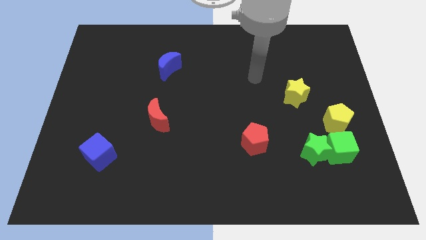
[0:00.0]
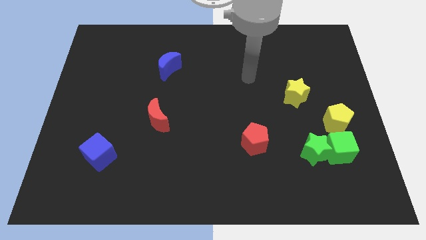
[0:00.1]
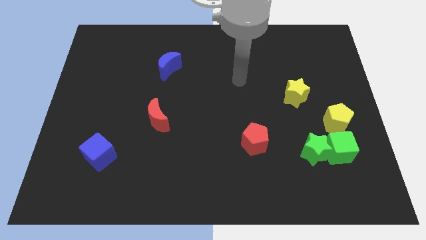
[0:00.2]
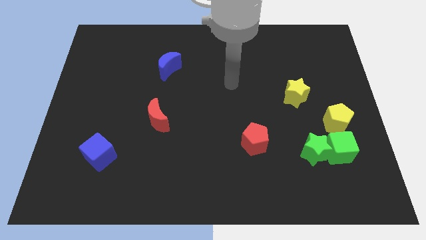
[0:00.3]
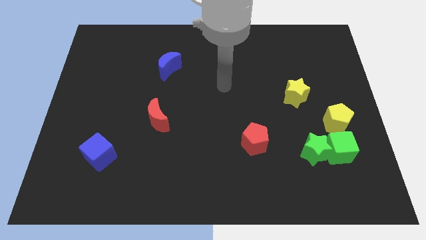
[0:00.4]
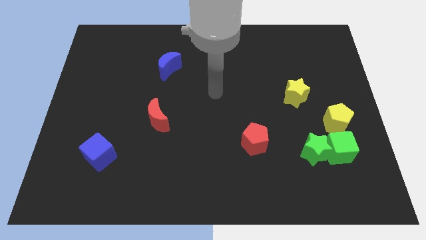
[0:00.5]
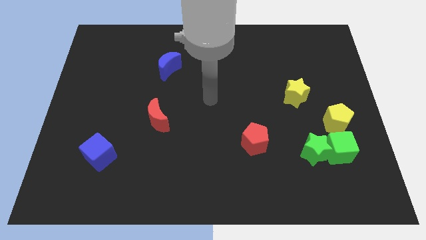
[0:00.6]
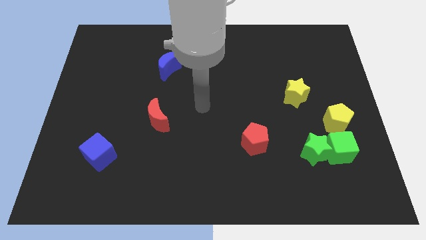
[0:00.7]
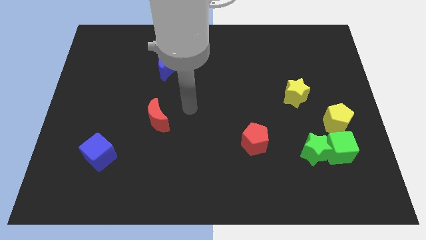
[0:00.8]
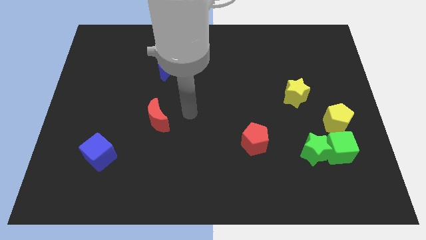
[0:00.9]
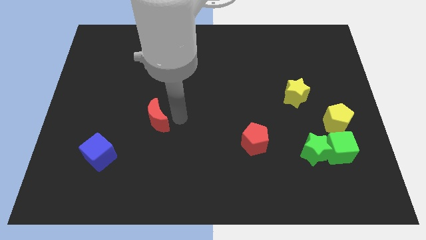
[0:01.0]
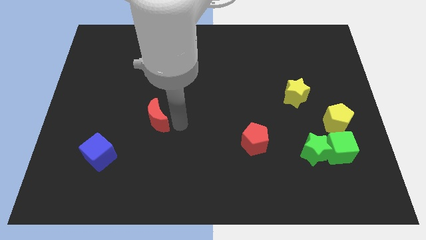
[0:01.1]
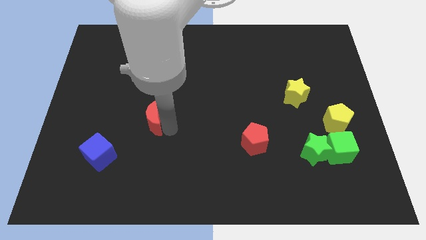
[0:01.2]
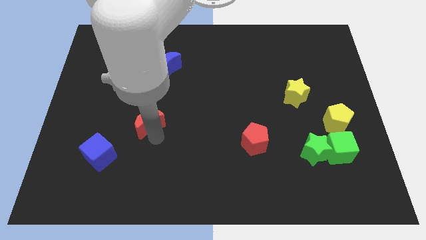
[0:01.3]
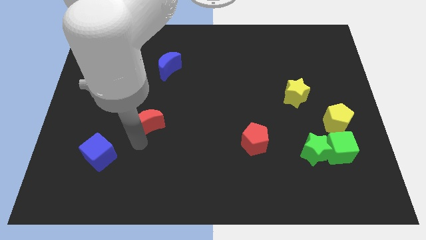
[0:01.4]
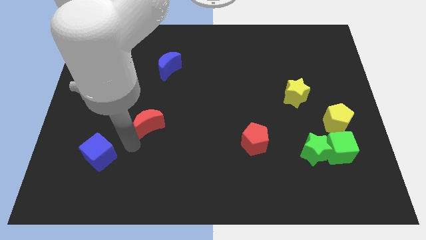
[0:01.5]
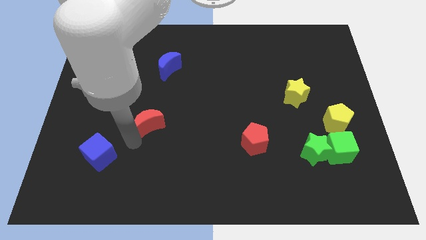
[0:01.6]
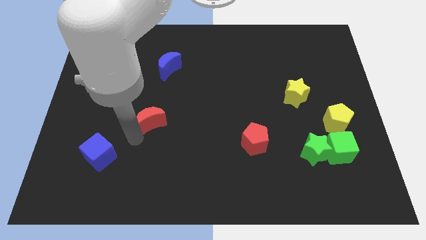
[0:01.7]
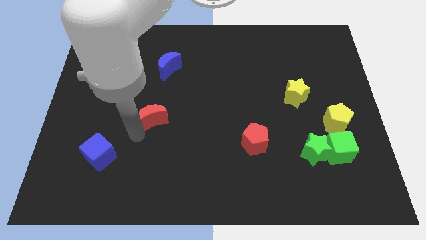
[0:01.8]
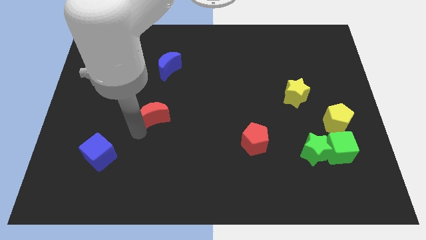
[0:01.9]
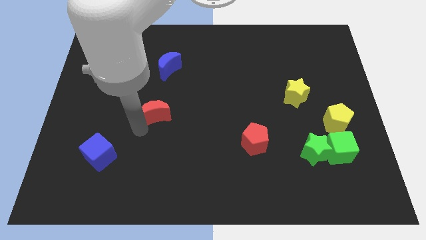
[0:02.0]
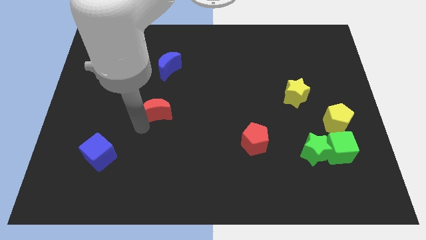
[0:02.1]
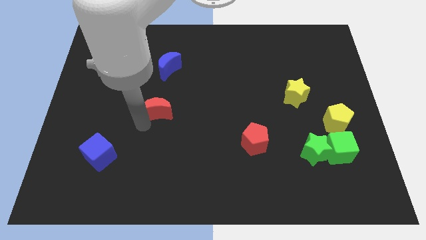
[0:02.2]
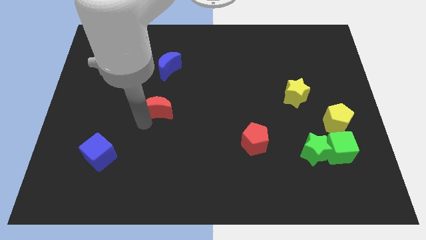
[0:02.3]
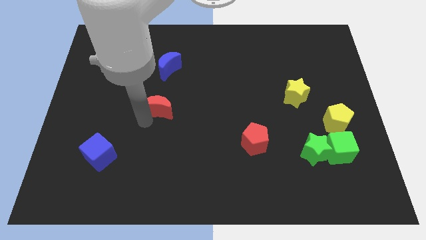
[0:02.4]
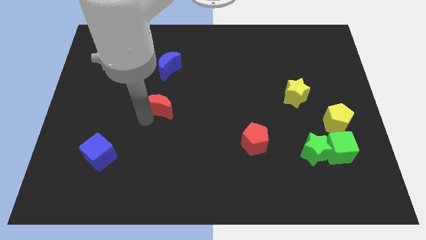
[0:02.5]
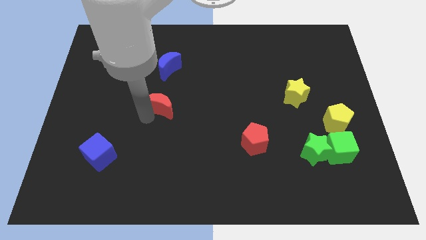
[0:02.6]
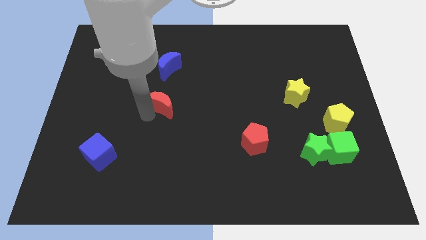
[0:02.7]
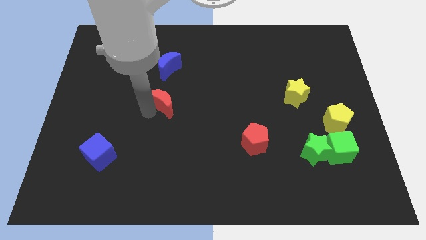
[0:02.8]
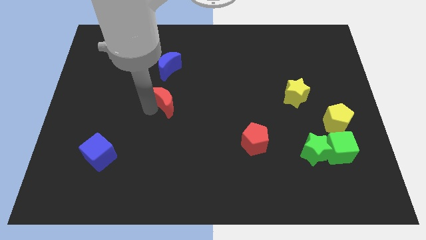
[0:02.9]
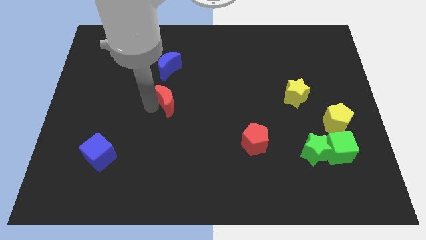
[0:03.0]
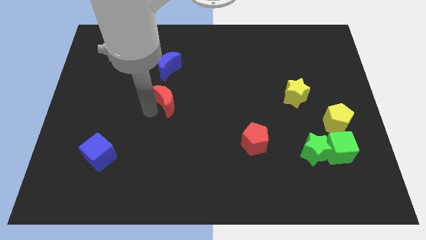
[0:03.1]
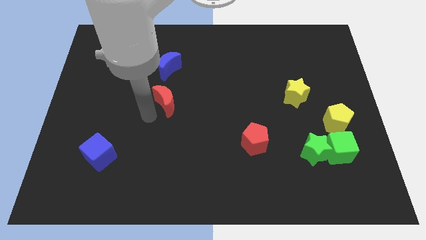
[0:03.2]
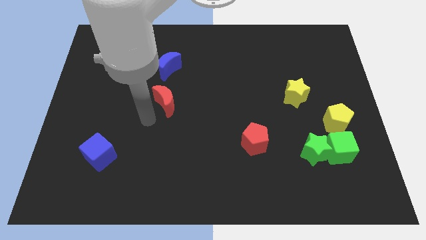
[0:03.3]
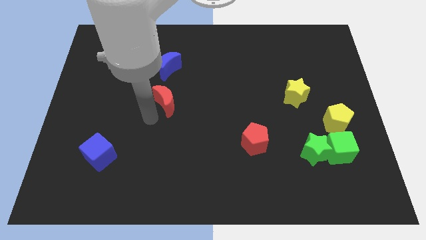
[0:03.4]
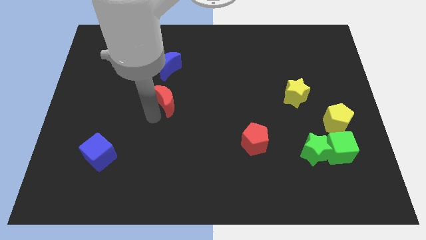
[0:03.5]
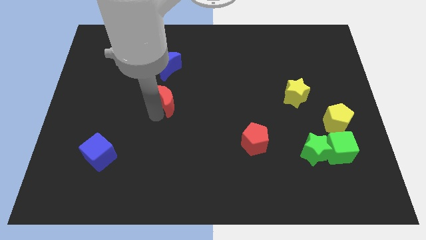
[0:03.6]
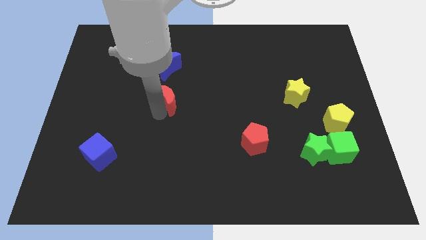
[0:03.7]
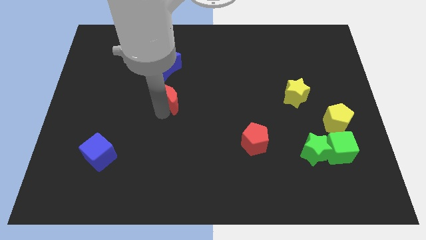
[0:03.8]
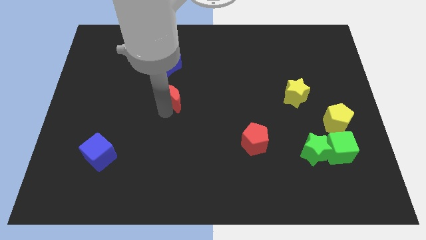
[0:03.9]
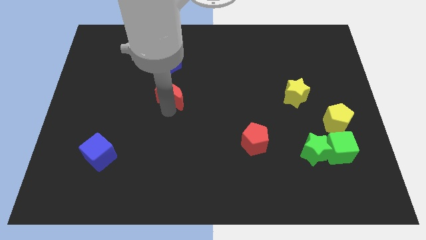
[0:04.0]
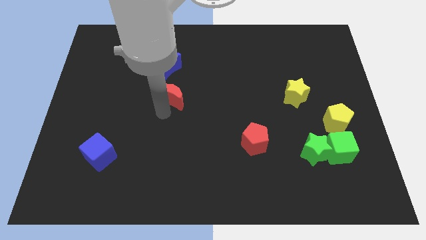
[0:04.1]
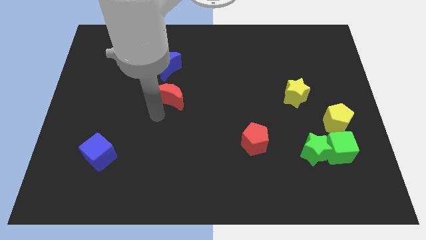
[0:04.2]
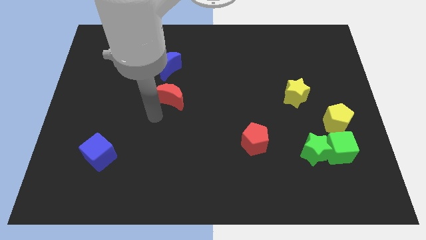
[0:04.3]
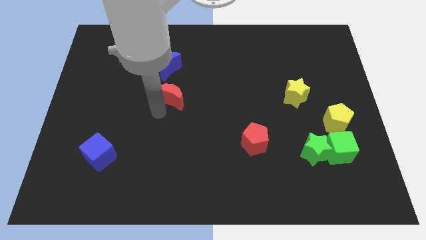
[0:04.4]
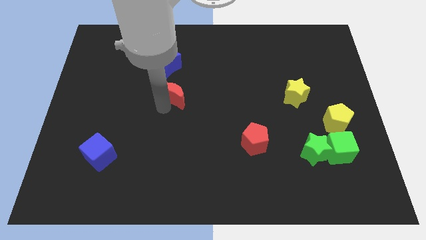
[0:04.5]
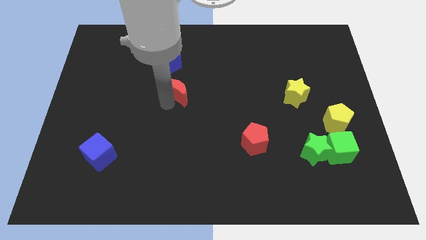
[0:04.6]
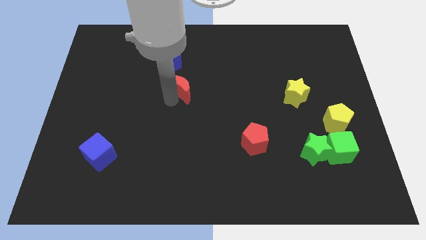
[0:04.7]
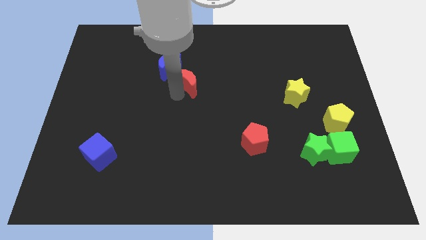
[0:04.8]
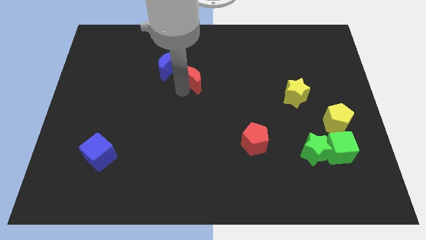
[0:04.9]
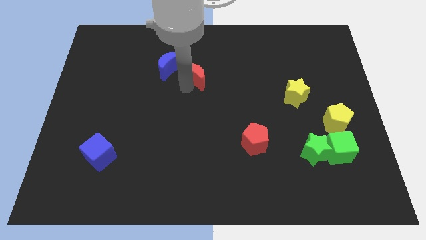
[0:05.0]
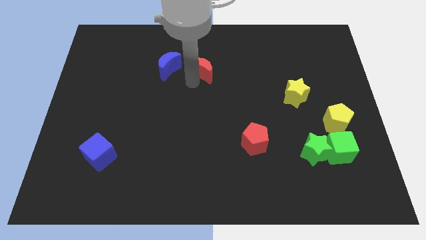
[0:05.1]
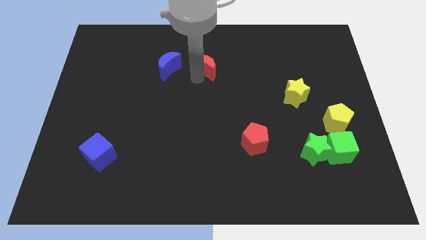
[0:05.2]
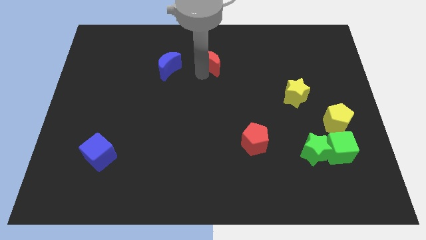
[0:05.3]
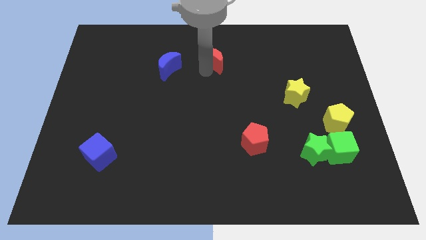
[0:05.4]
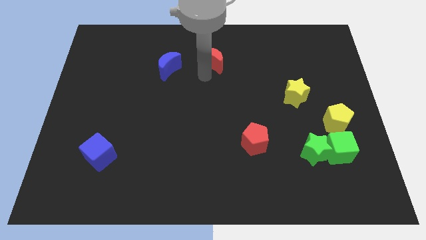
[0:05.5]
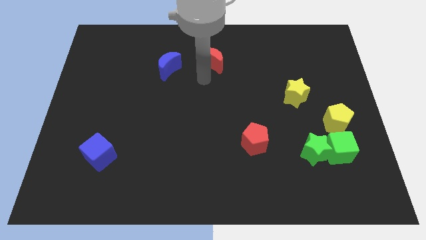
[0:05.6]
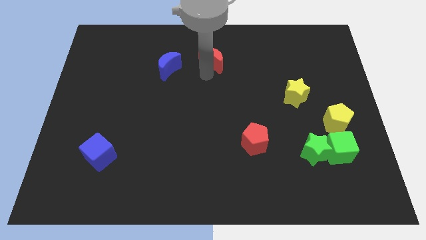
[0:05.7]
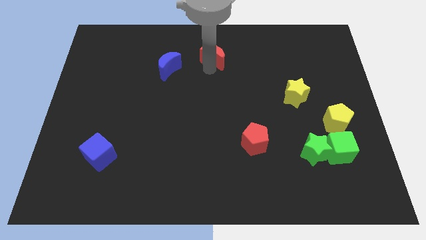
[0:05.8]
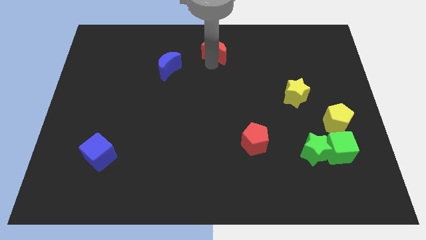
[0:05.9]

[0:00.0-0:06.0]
put the red moon to the towards your base
